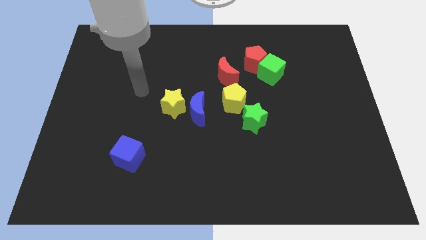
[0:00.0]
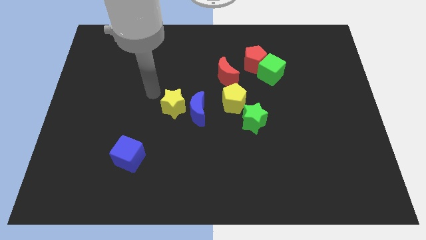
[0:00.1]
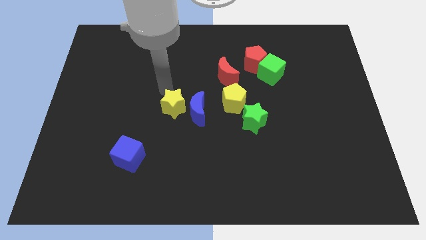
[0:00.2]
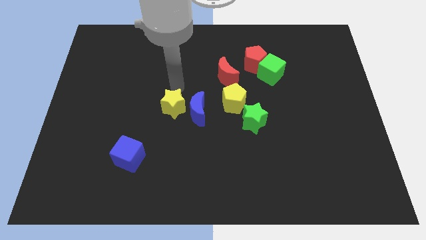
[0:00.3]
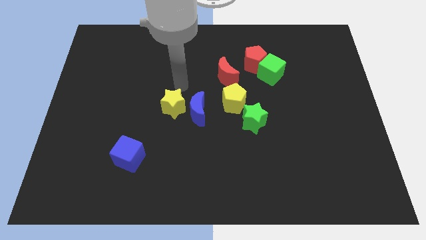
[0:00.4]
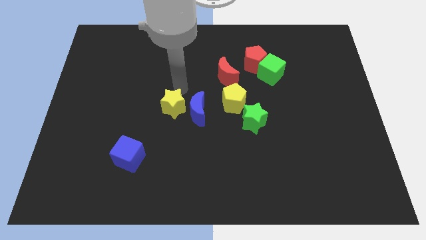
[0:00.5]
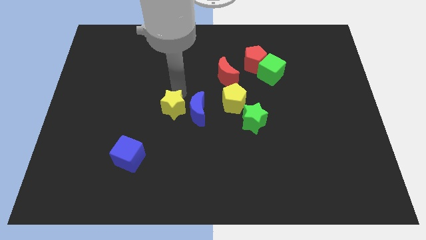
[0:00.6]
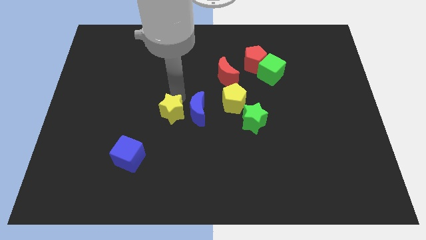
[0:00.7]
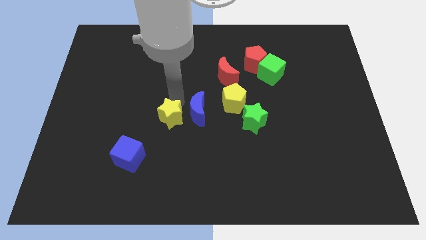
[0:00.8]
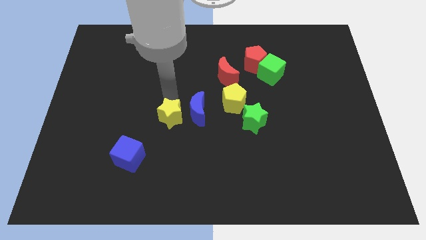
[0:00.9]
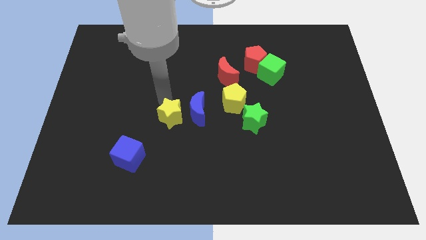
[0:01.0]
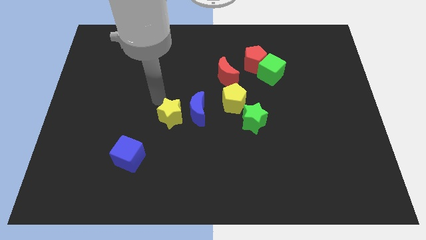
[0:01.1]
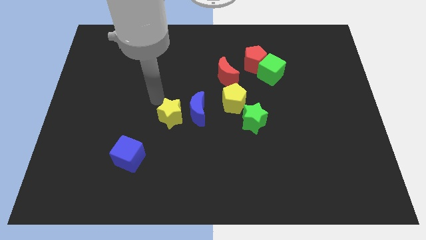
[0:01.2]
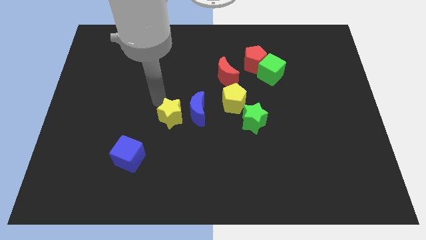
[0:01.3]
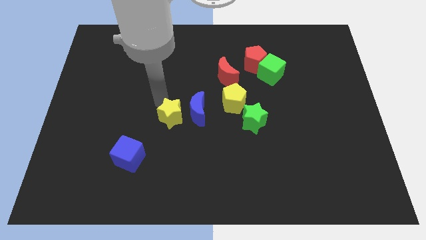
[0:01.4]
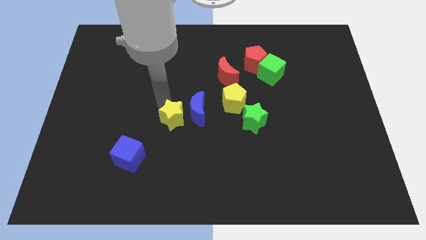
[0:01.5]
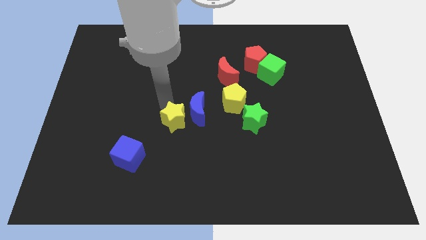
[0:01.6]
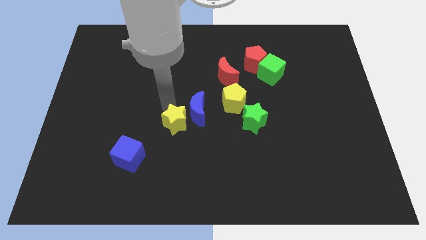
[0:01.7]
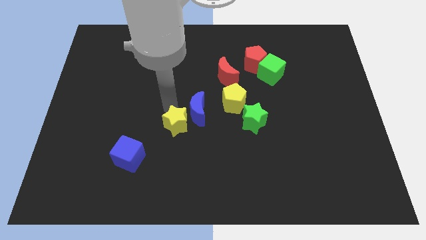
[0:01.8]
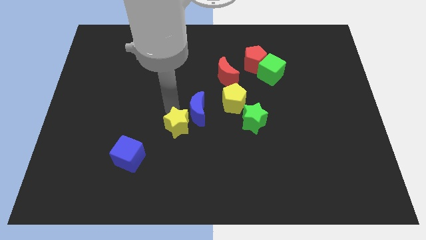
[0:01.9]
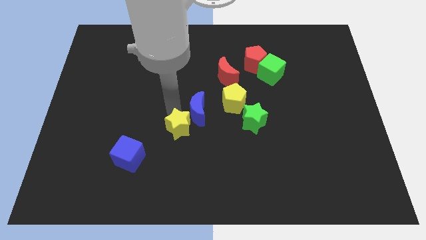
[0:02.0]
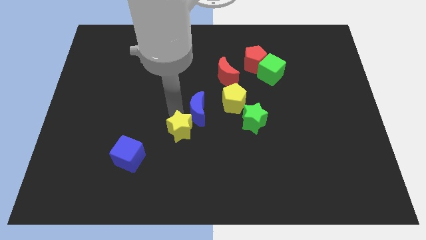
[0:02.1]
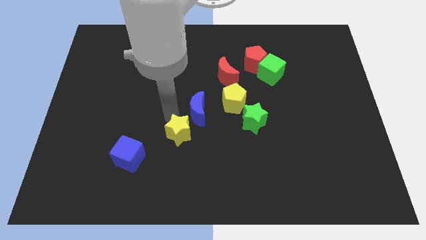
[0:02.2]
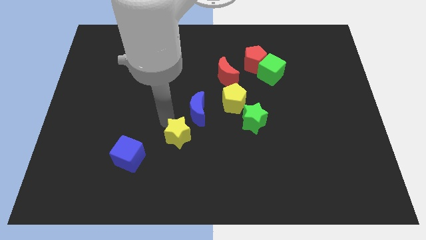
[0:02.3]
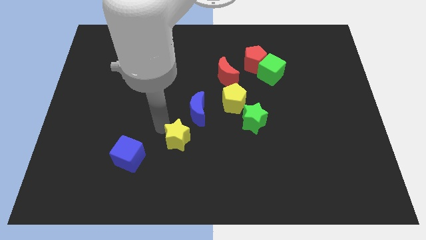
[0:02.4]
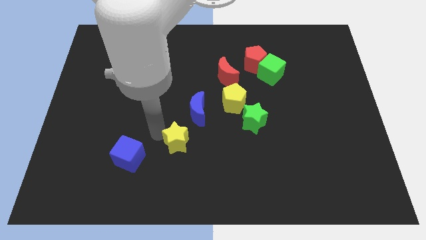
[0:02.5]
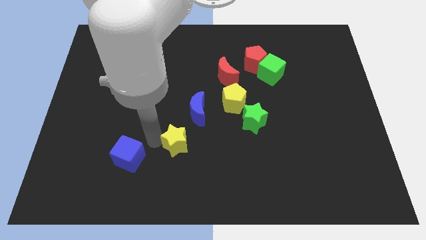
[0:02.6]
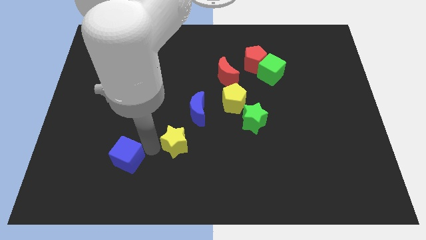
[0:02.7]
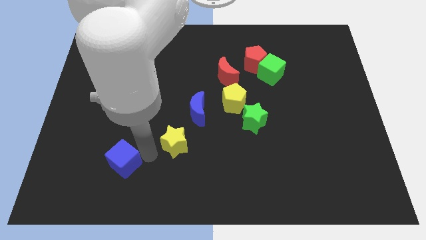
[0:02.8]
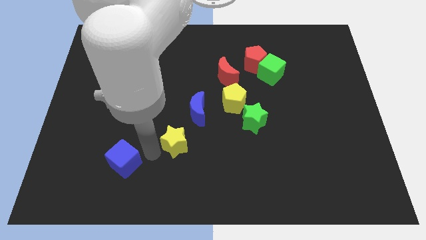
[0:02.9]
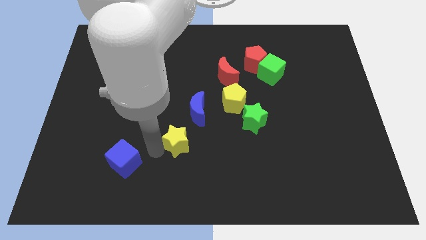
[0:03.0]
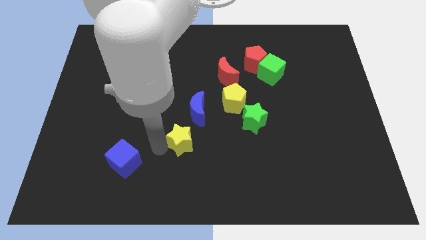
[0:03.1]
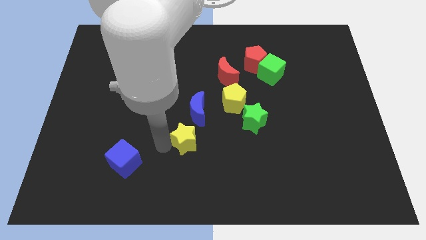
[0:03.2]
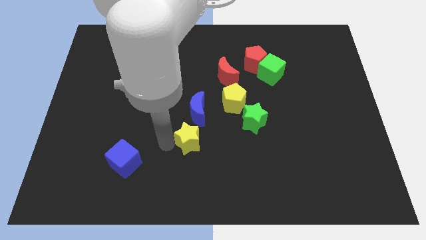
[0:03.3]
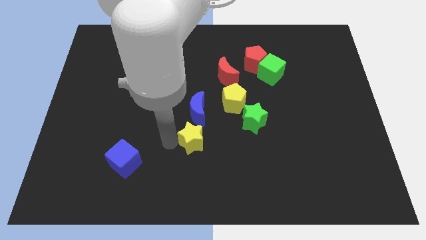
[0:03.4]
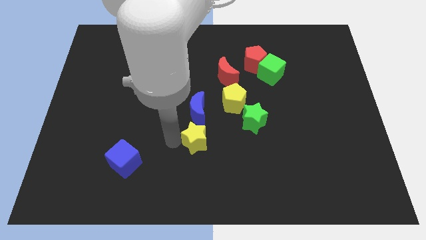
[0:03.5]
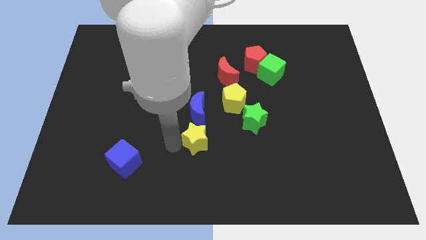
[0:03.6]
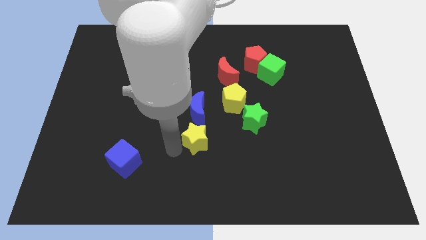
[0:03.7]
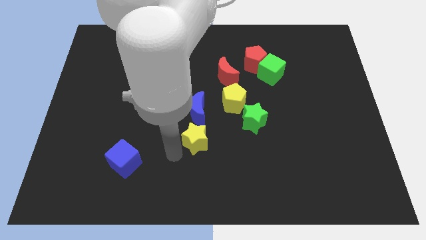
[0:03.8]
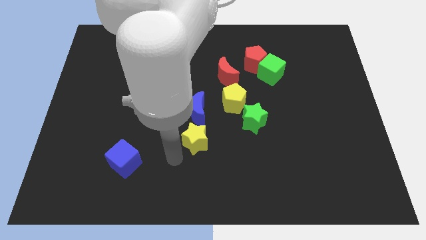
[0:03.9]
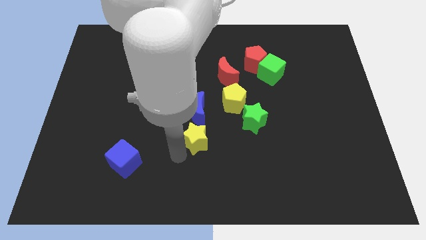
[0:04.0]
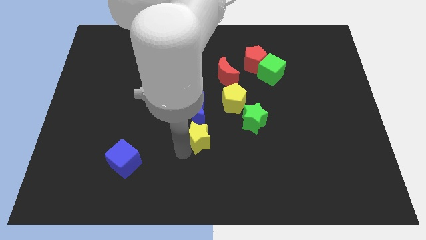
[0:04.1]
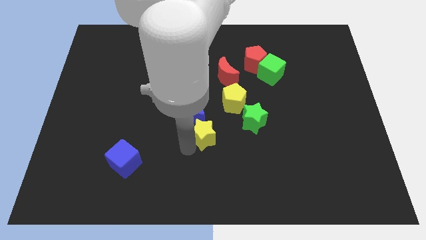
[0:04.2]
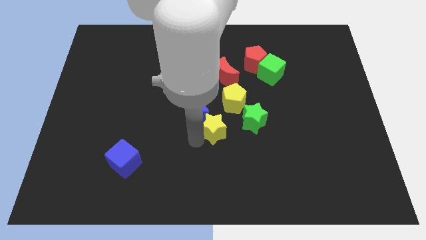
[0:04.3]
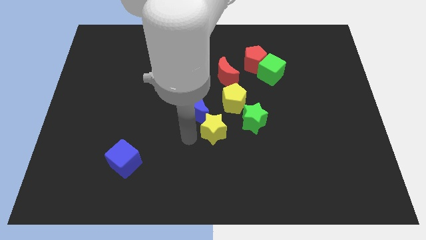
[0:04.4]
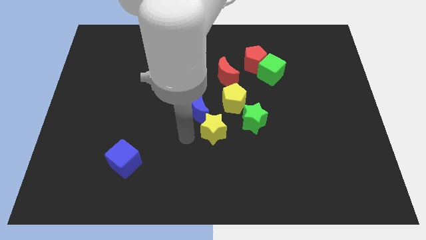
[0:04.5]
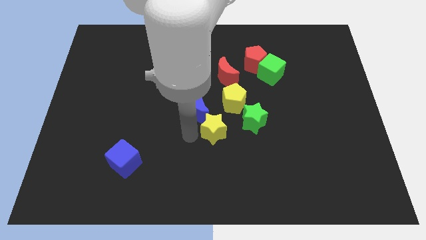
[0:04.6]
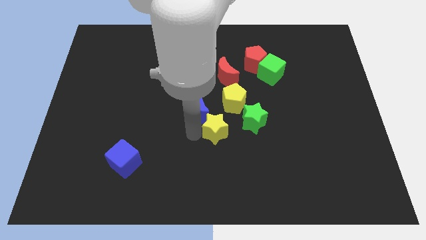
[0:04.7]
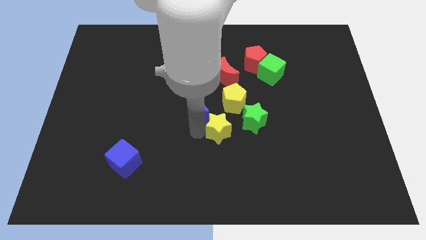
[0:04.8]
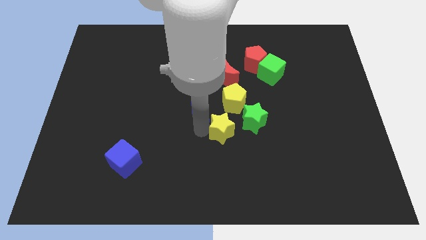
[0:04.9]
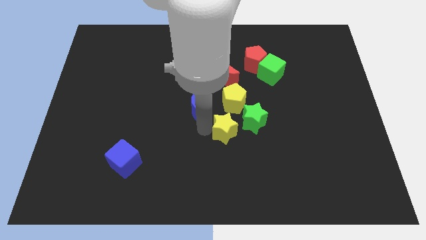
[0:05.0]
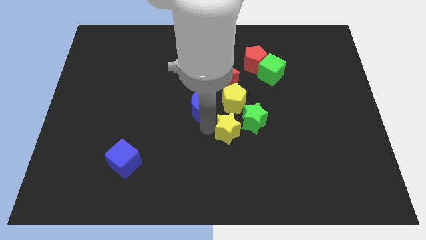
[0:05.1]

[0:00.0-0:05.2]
slide the yellow star close to the green star

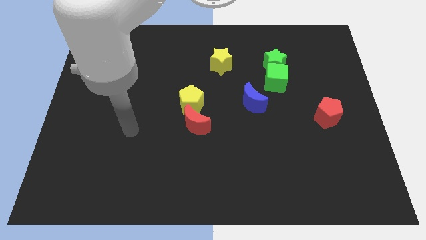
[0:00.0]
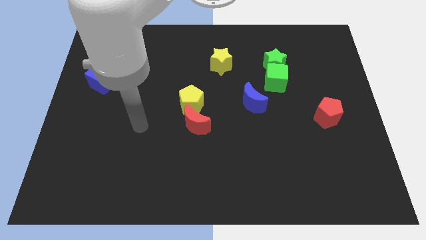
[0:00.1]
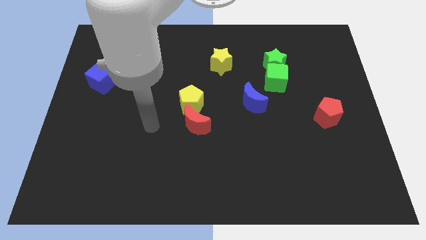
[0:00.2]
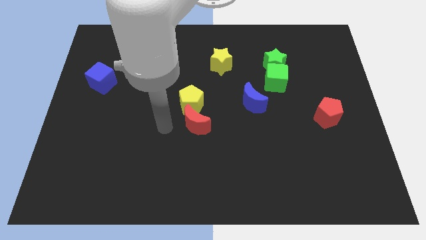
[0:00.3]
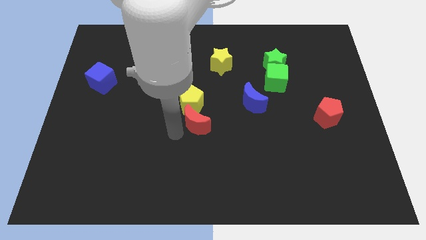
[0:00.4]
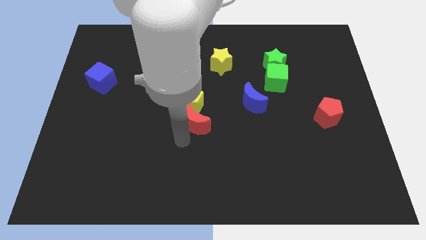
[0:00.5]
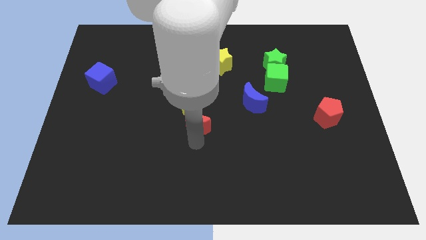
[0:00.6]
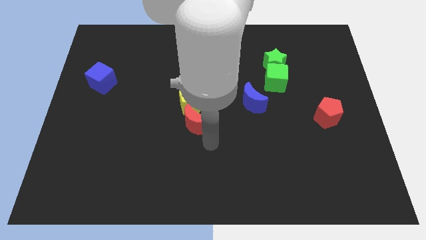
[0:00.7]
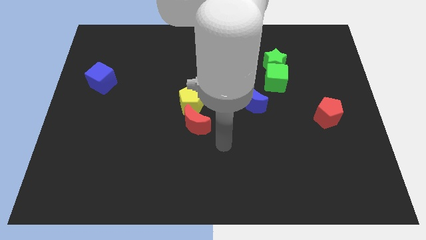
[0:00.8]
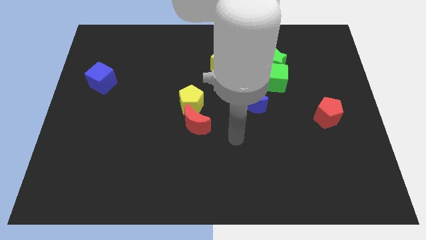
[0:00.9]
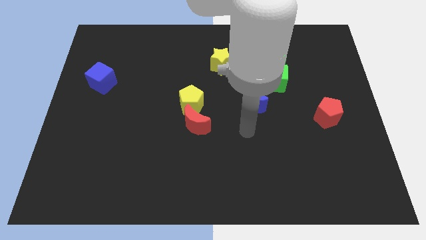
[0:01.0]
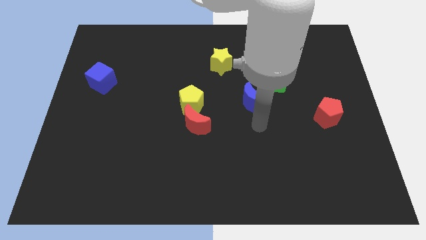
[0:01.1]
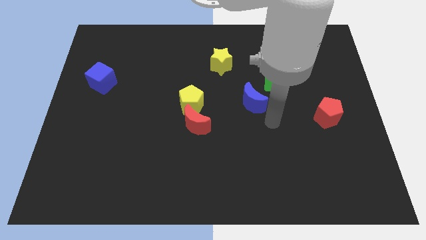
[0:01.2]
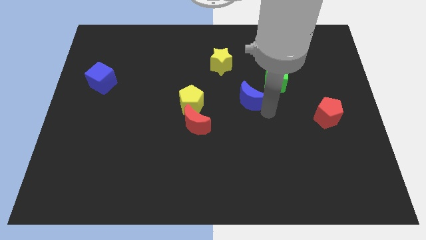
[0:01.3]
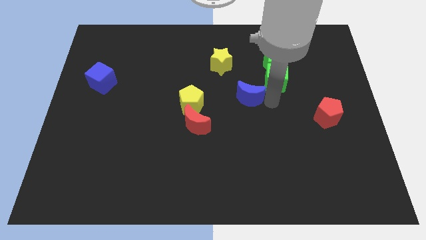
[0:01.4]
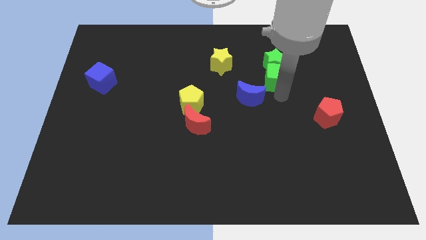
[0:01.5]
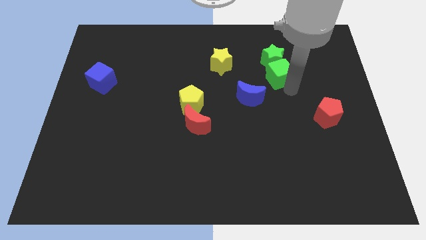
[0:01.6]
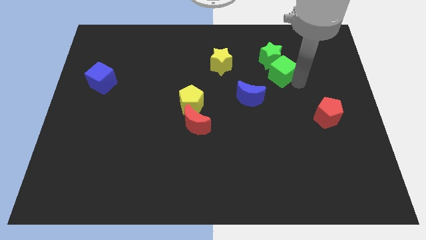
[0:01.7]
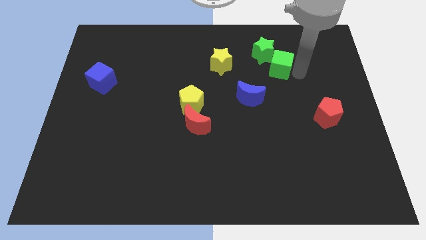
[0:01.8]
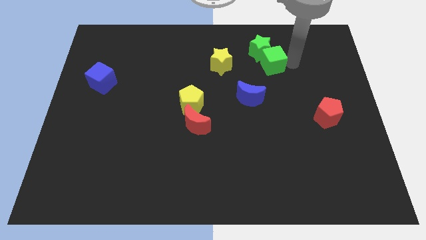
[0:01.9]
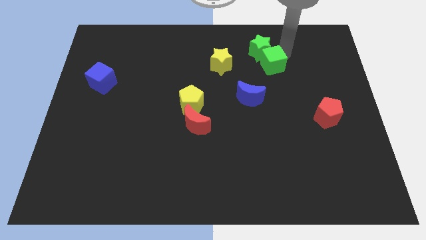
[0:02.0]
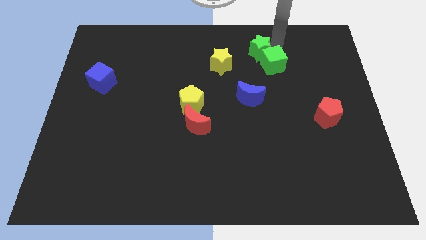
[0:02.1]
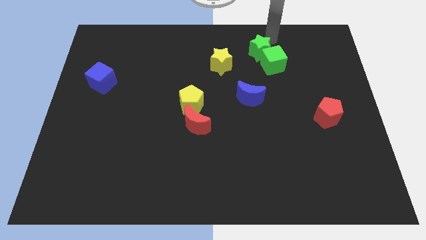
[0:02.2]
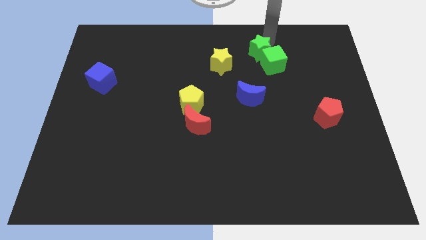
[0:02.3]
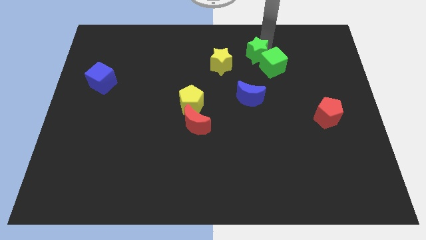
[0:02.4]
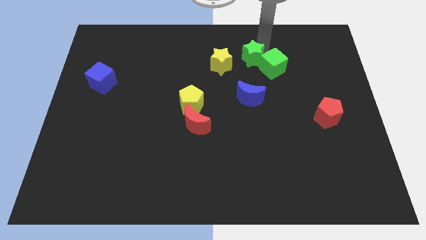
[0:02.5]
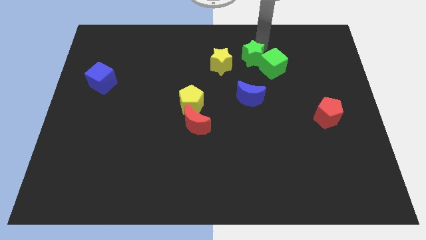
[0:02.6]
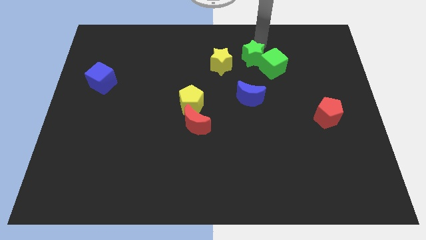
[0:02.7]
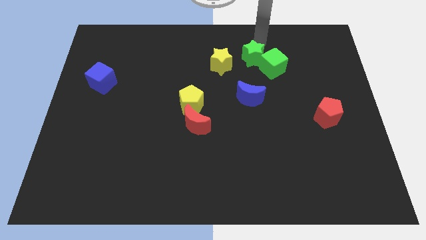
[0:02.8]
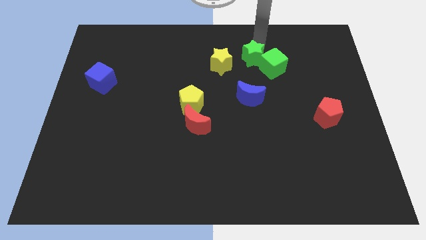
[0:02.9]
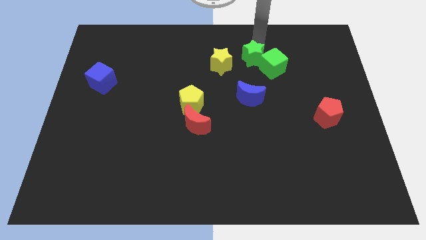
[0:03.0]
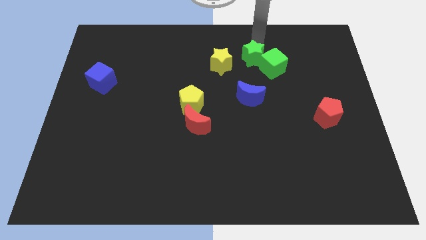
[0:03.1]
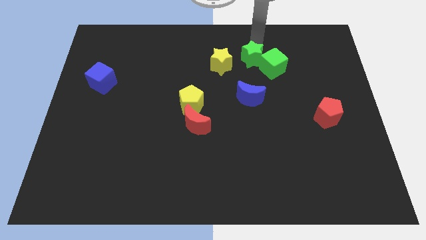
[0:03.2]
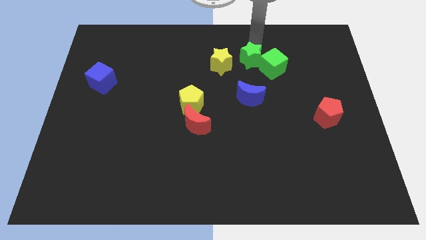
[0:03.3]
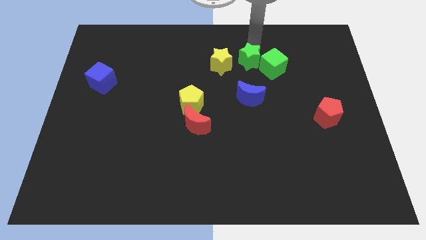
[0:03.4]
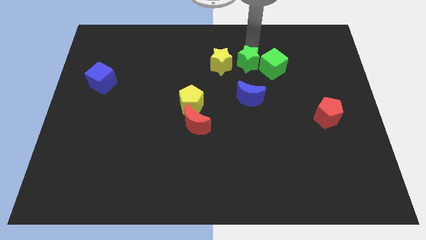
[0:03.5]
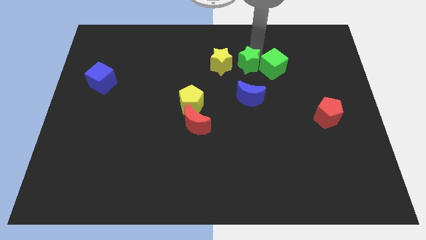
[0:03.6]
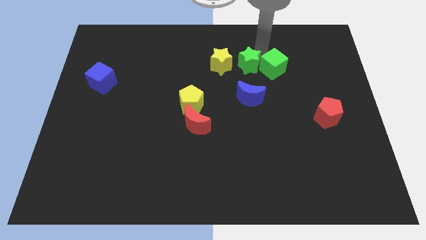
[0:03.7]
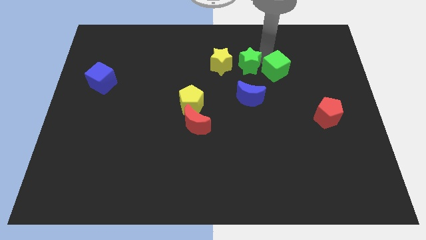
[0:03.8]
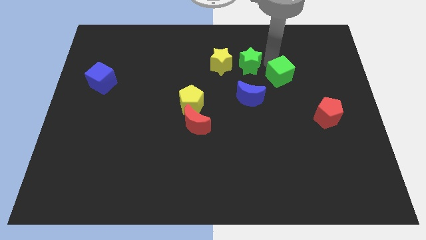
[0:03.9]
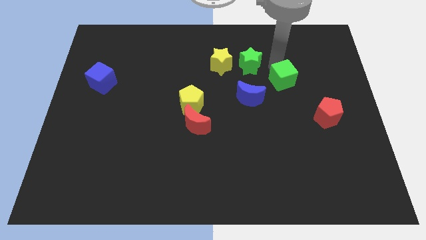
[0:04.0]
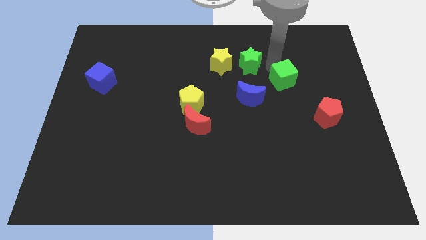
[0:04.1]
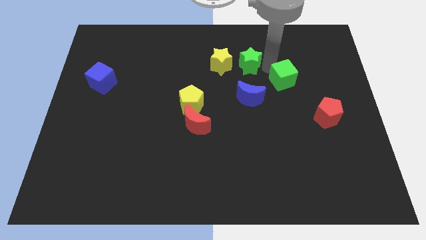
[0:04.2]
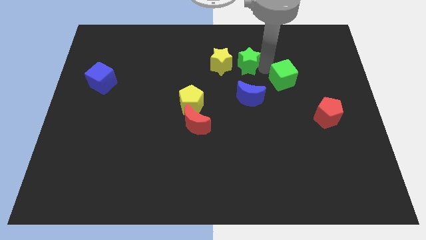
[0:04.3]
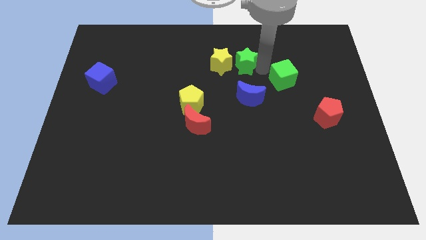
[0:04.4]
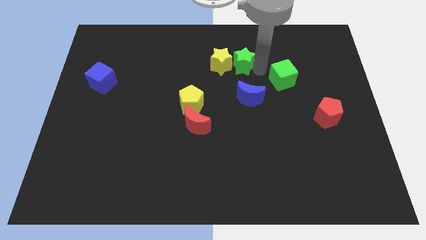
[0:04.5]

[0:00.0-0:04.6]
push the green star next to the yellow star
